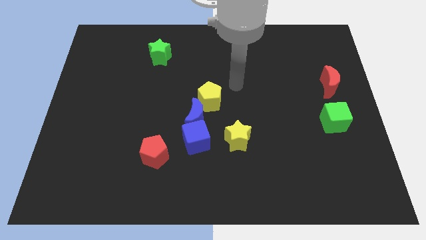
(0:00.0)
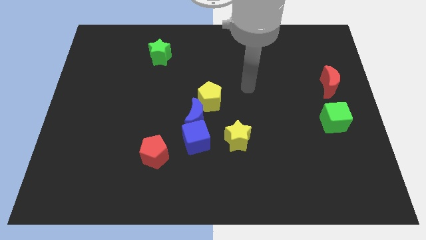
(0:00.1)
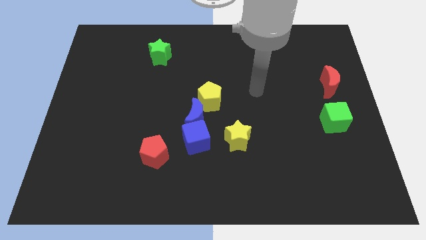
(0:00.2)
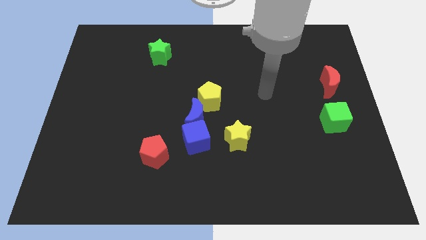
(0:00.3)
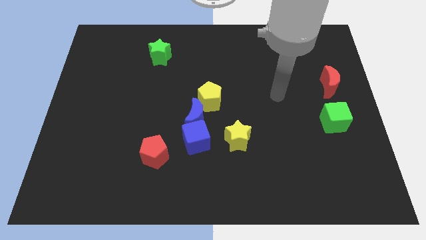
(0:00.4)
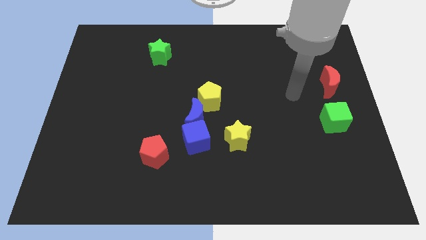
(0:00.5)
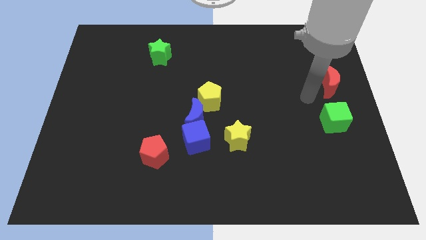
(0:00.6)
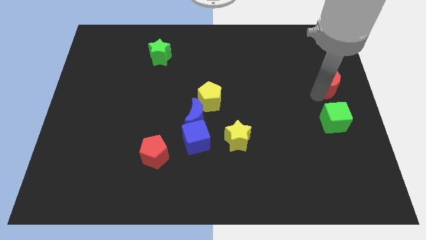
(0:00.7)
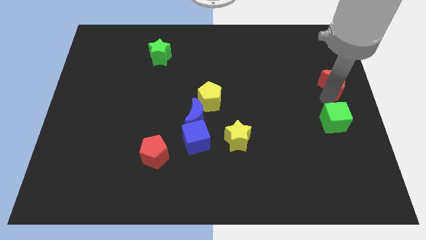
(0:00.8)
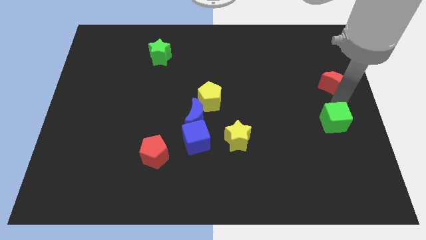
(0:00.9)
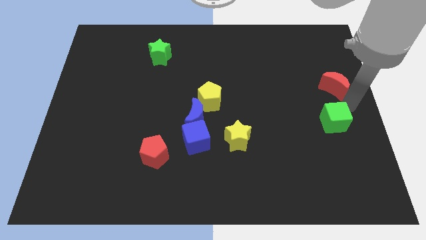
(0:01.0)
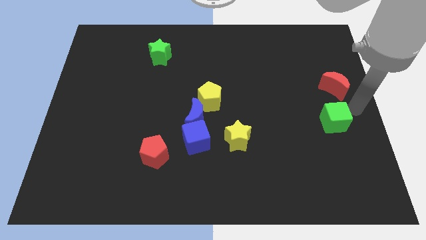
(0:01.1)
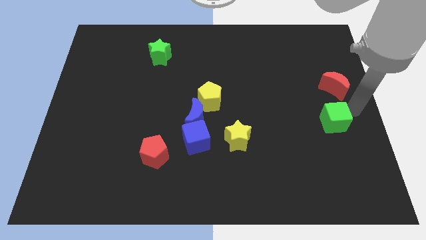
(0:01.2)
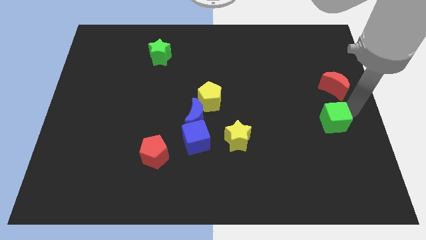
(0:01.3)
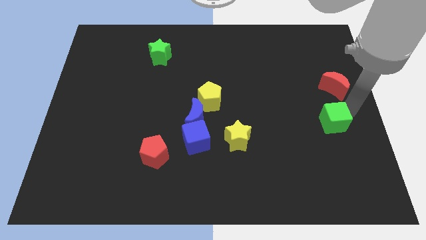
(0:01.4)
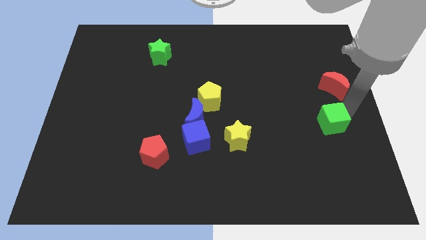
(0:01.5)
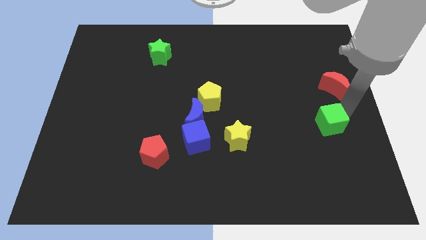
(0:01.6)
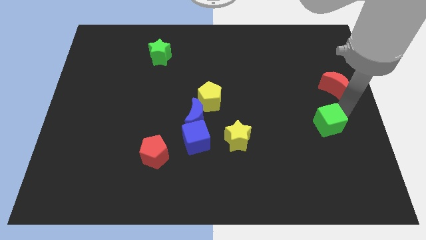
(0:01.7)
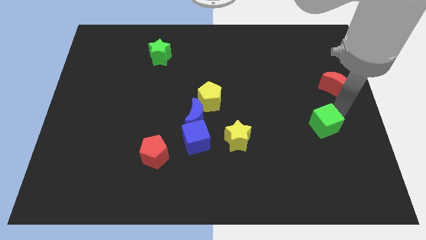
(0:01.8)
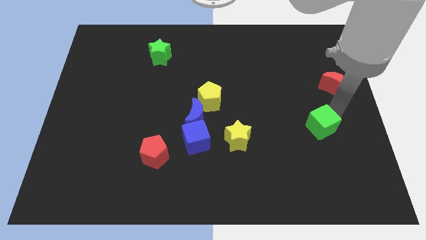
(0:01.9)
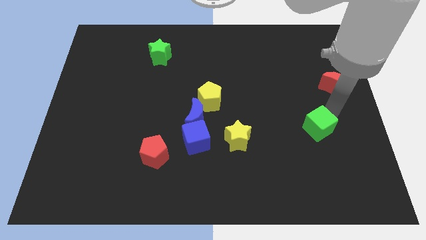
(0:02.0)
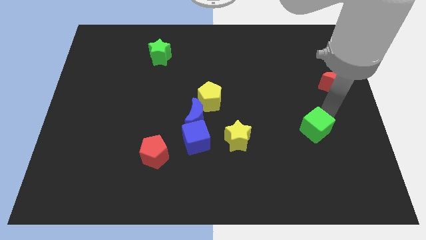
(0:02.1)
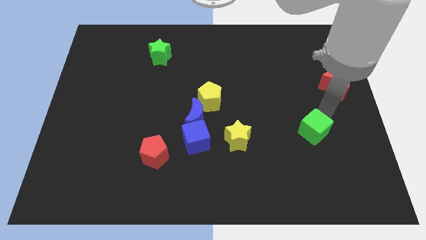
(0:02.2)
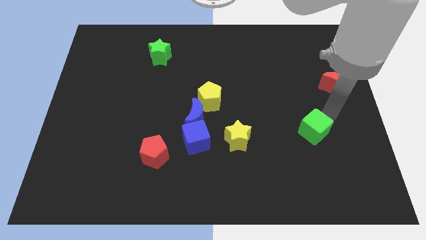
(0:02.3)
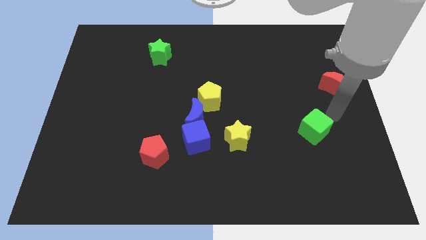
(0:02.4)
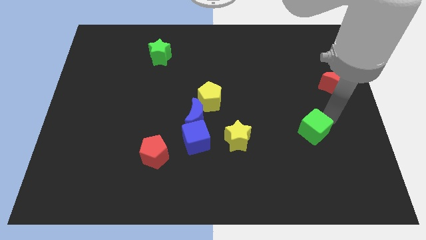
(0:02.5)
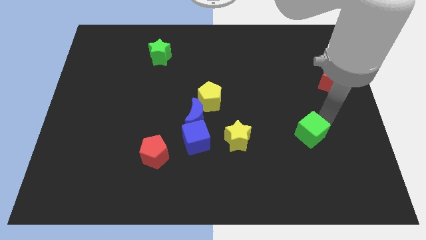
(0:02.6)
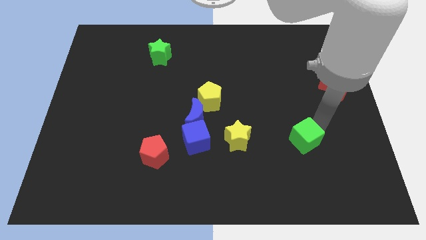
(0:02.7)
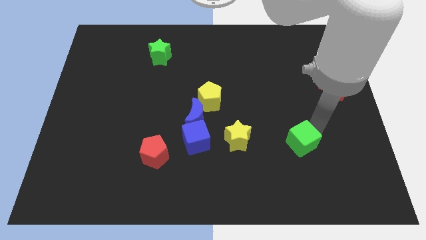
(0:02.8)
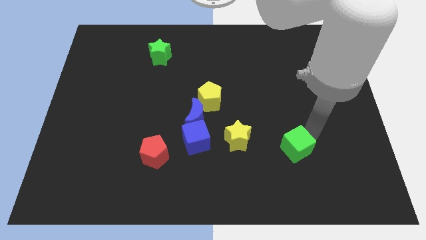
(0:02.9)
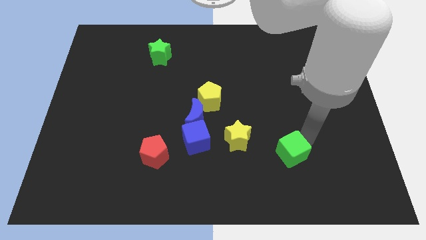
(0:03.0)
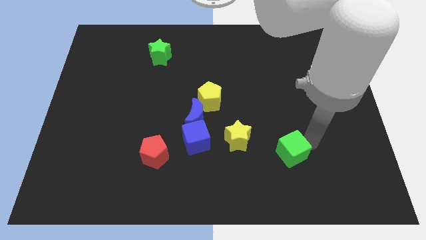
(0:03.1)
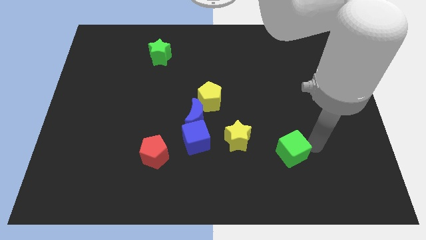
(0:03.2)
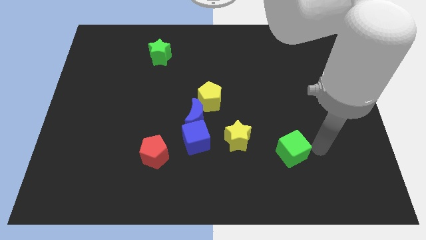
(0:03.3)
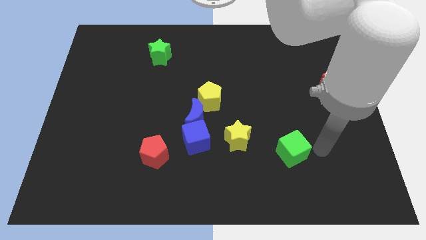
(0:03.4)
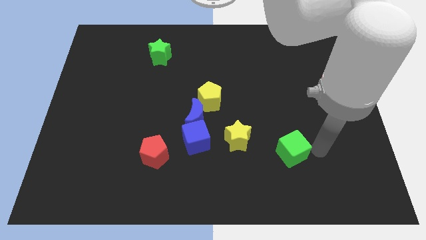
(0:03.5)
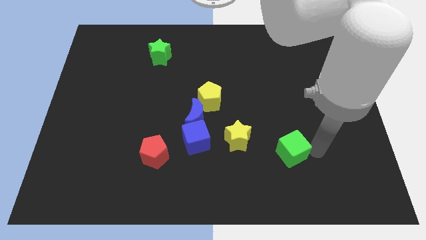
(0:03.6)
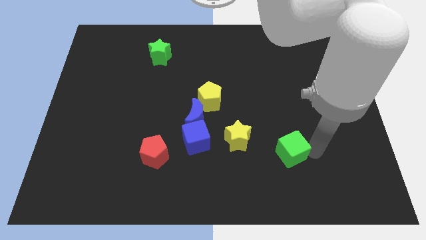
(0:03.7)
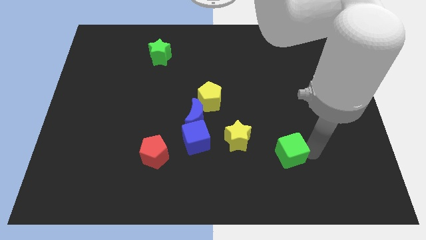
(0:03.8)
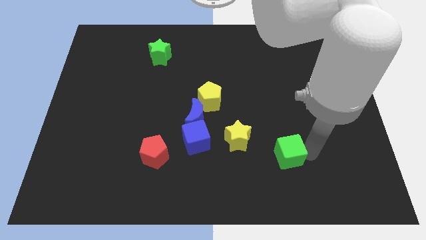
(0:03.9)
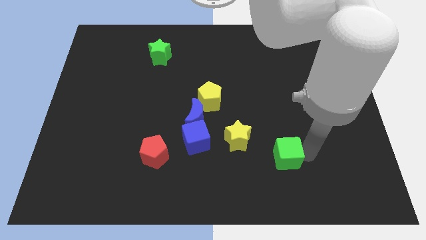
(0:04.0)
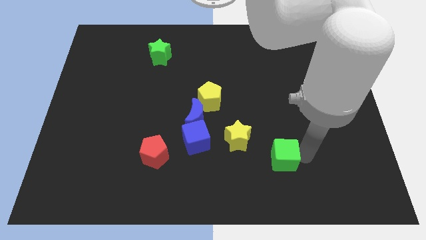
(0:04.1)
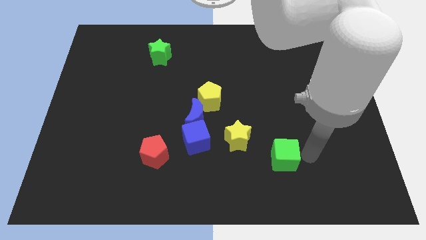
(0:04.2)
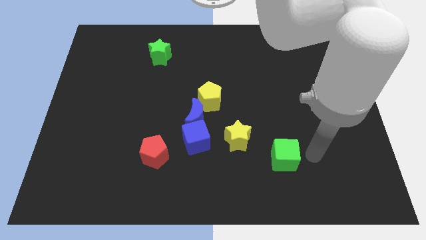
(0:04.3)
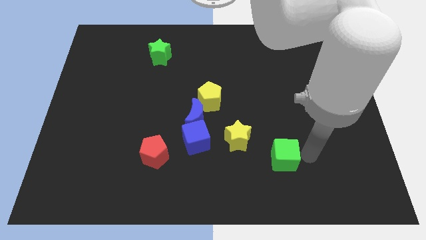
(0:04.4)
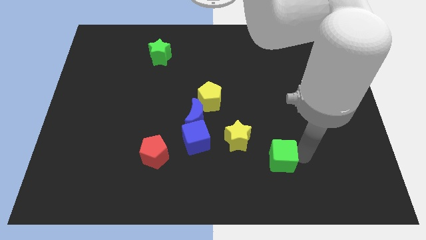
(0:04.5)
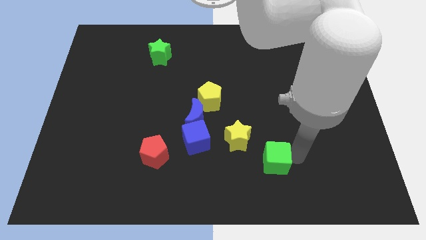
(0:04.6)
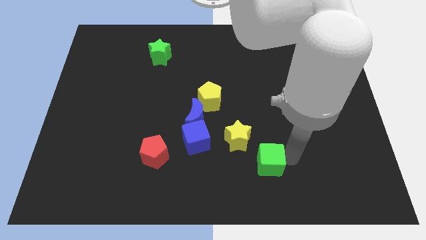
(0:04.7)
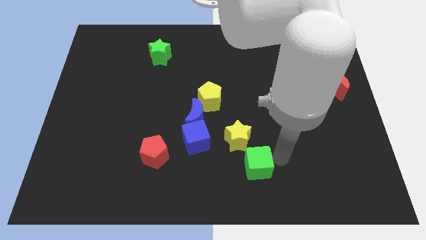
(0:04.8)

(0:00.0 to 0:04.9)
slide the green cube to the bottom of the yellow star

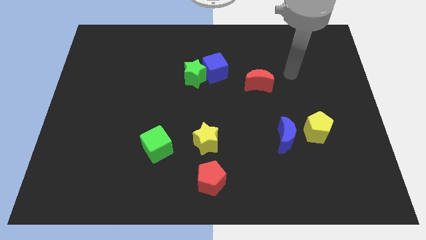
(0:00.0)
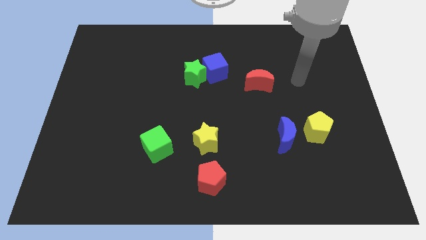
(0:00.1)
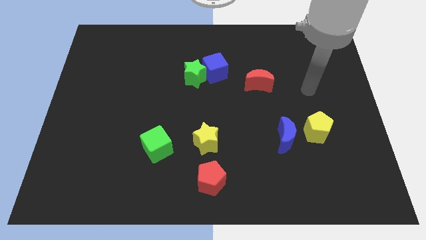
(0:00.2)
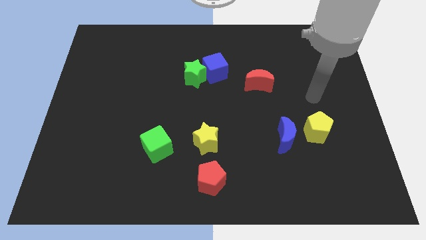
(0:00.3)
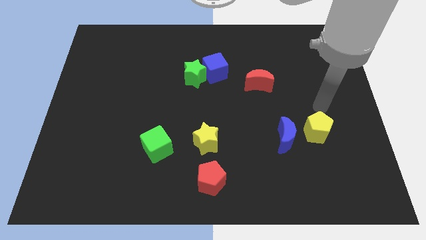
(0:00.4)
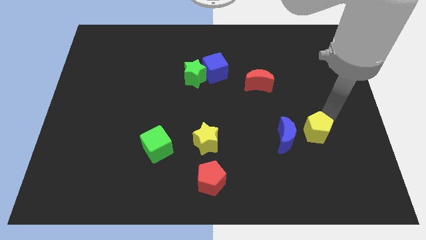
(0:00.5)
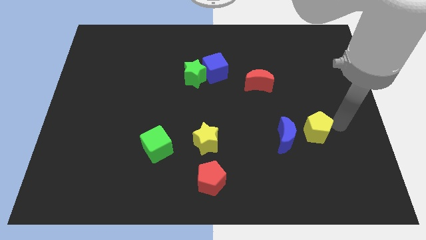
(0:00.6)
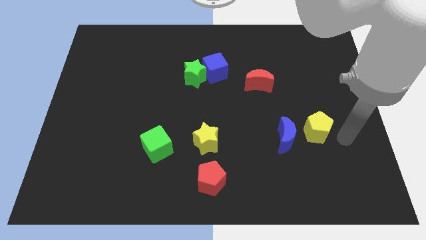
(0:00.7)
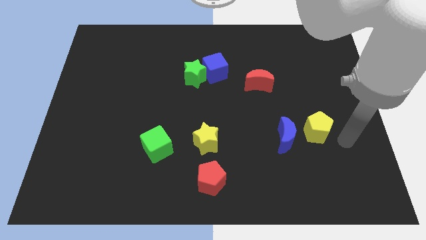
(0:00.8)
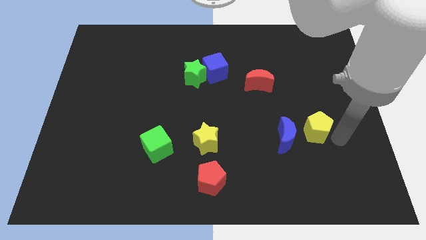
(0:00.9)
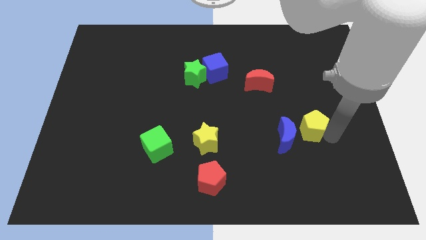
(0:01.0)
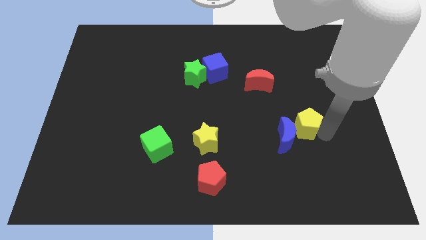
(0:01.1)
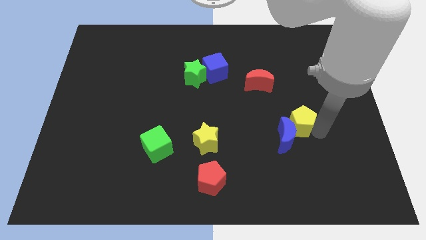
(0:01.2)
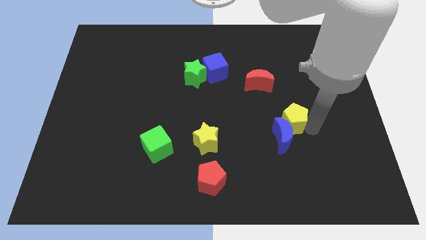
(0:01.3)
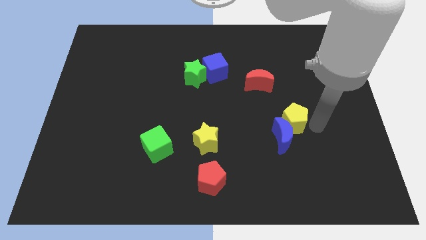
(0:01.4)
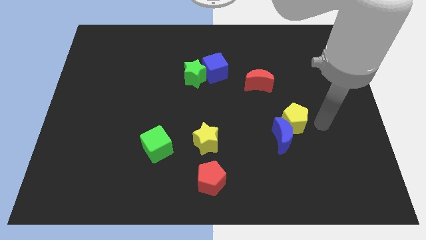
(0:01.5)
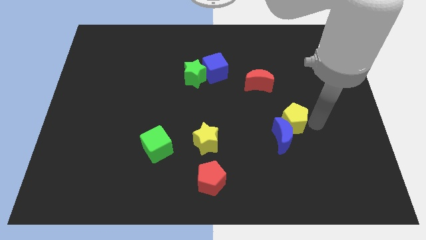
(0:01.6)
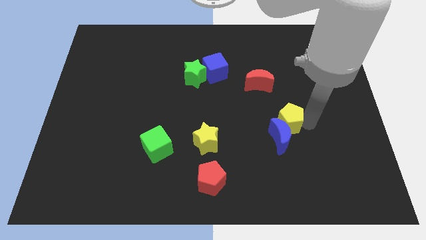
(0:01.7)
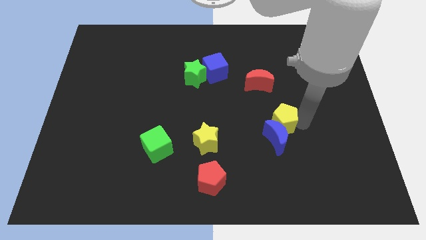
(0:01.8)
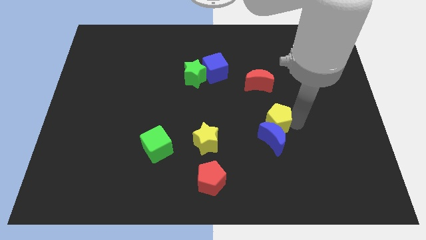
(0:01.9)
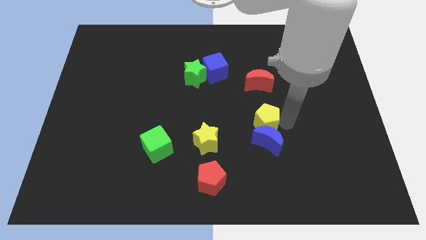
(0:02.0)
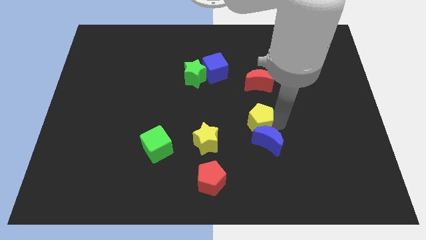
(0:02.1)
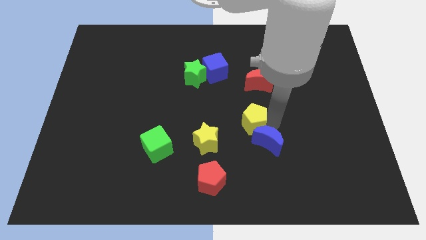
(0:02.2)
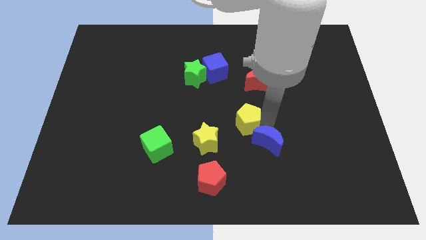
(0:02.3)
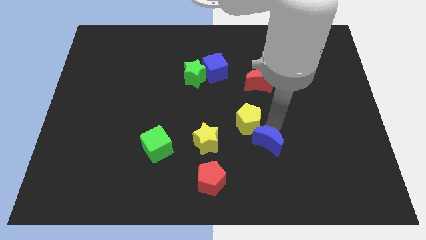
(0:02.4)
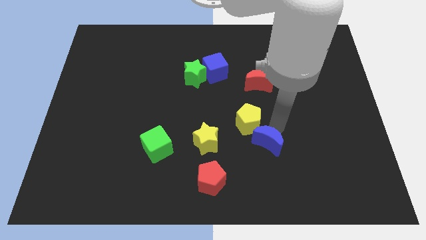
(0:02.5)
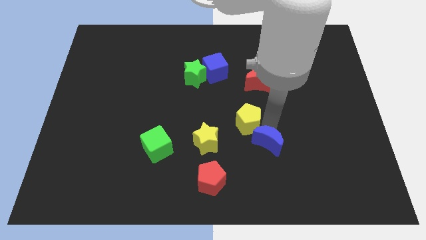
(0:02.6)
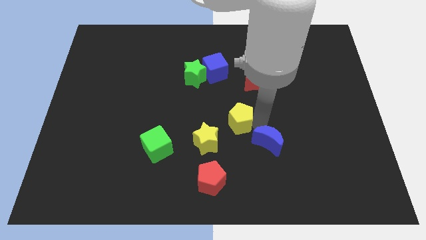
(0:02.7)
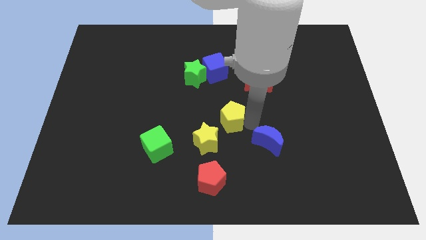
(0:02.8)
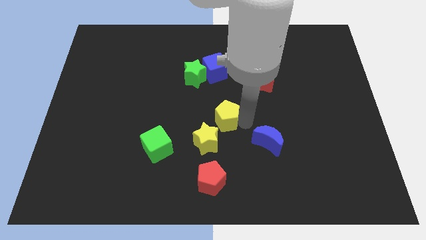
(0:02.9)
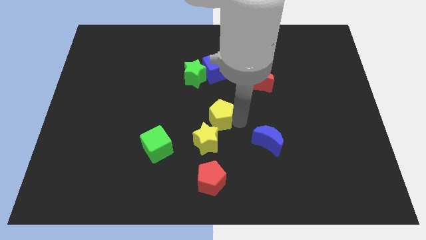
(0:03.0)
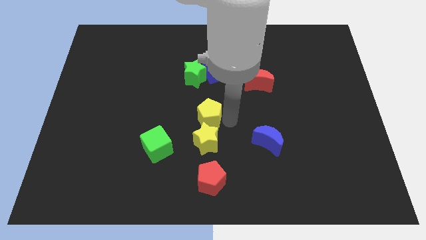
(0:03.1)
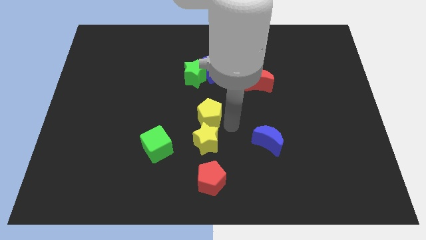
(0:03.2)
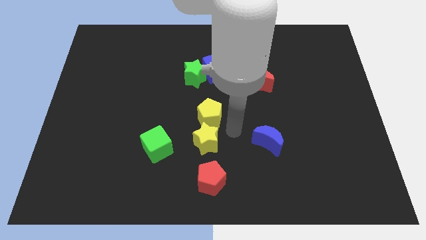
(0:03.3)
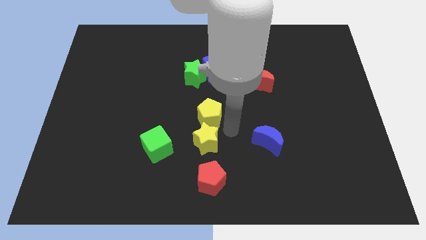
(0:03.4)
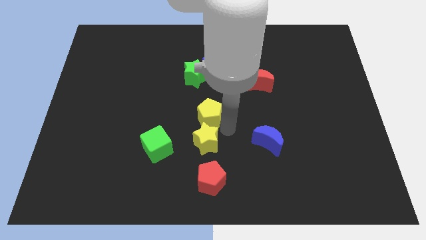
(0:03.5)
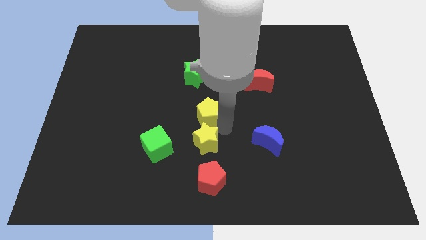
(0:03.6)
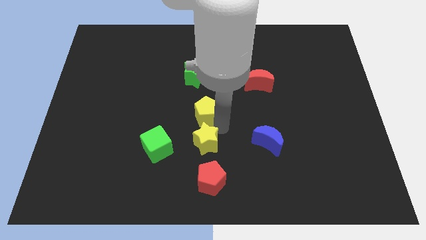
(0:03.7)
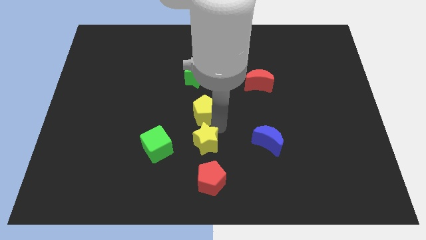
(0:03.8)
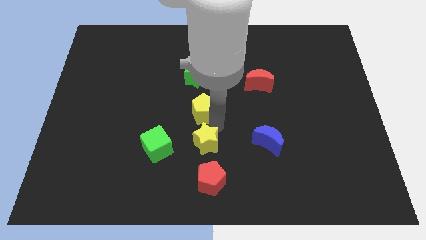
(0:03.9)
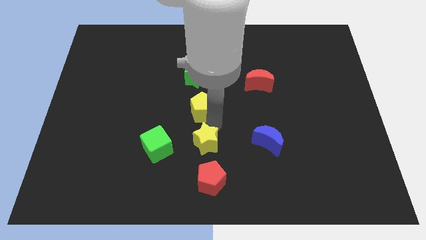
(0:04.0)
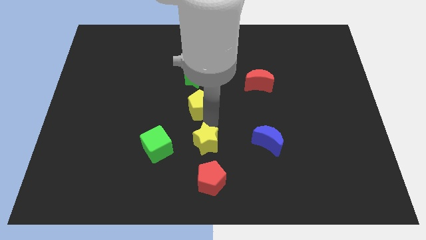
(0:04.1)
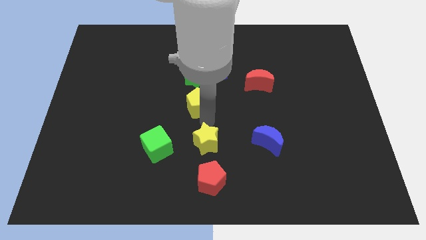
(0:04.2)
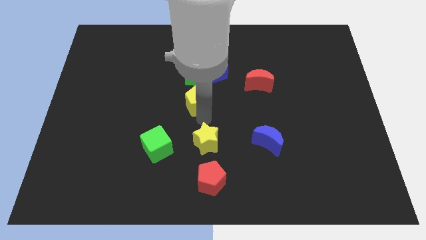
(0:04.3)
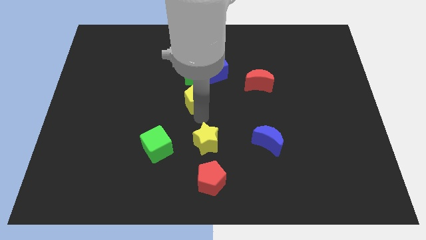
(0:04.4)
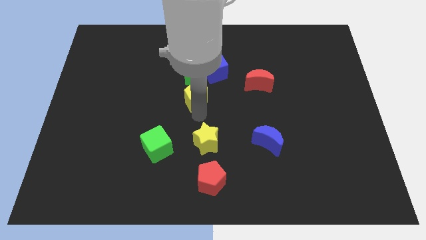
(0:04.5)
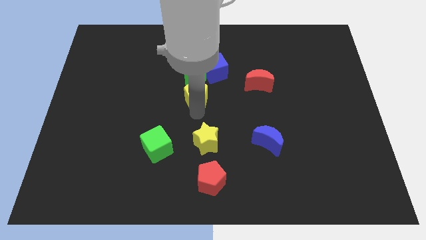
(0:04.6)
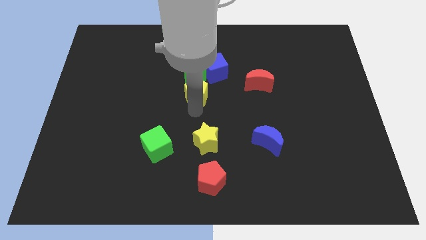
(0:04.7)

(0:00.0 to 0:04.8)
put the yellow pentagon to the bottom left of the green star
